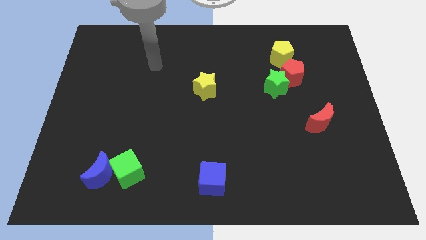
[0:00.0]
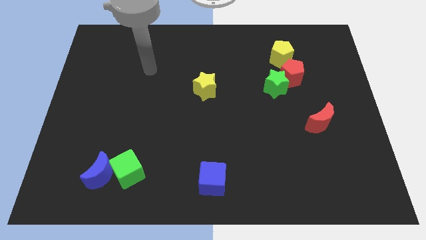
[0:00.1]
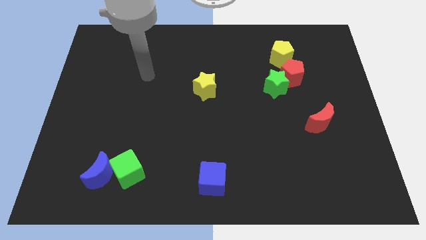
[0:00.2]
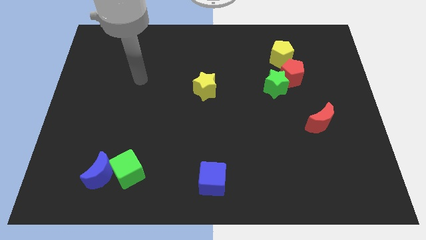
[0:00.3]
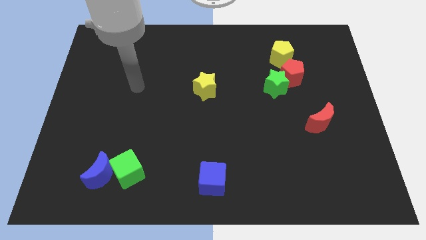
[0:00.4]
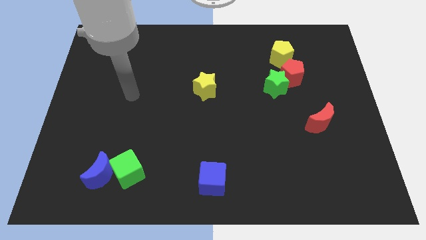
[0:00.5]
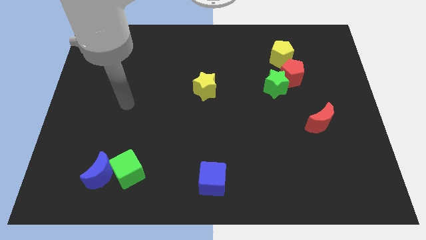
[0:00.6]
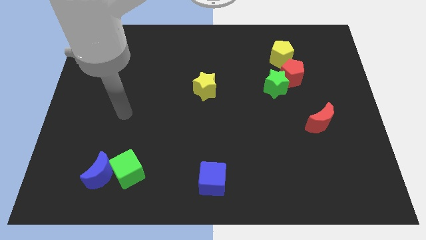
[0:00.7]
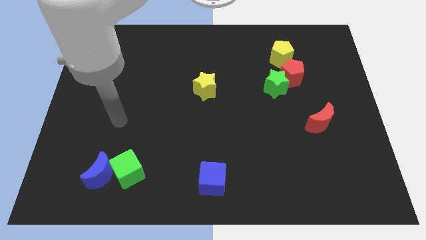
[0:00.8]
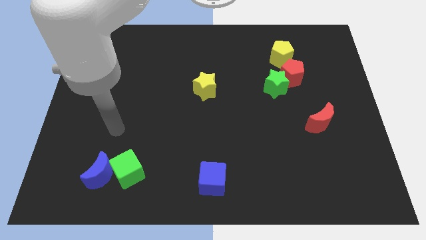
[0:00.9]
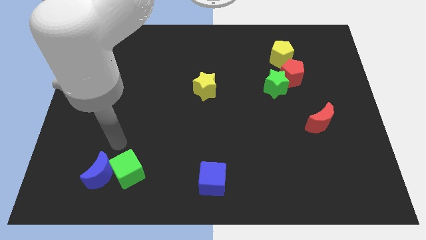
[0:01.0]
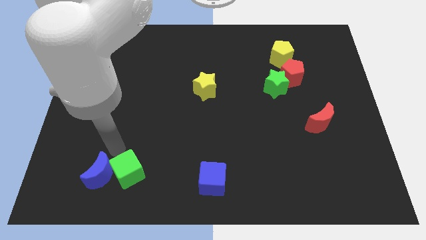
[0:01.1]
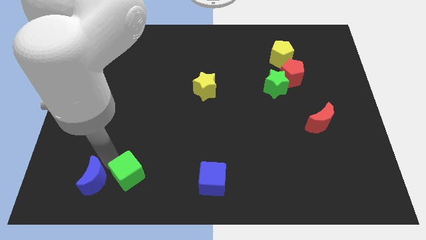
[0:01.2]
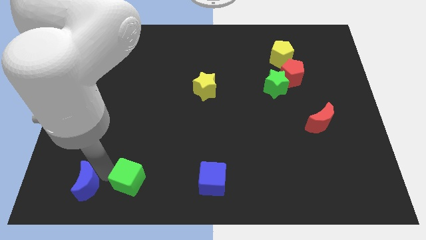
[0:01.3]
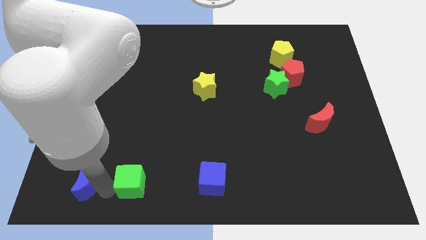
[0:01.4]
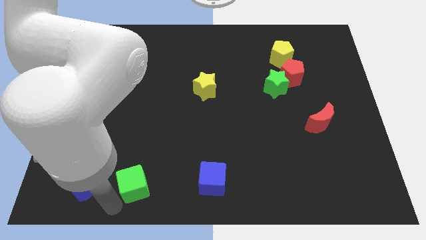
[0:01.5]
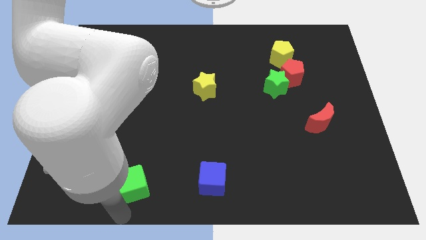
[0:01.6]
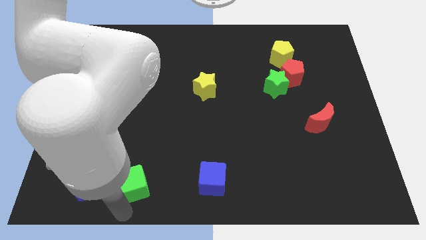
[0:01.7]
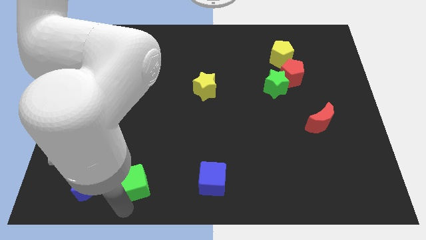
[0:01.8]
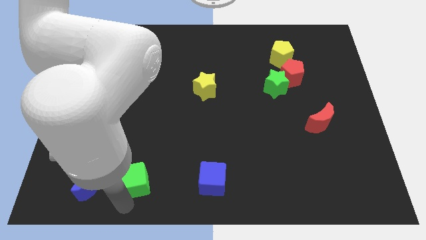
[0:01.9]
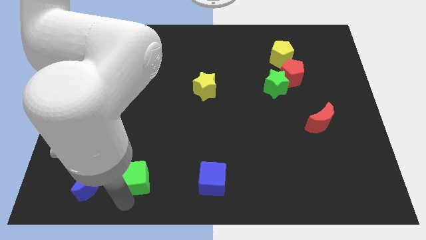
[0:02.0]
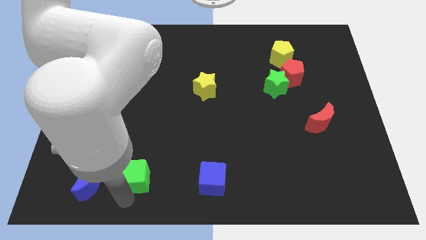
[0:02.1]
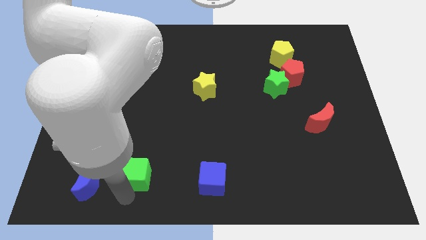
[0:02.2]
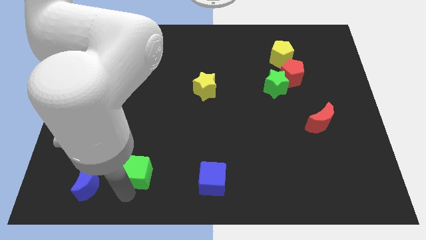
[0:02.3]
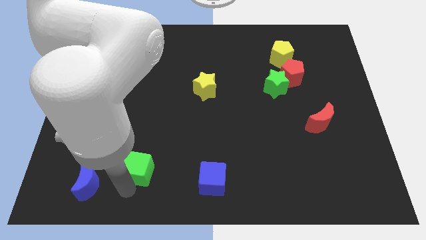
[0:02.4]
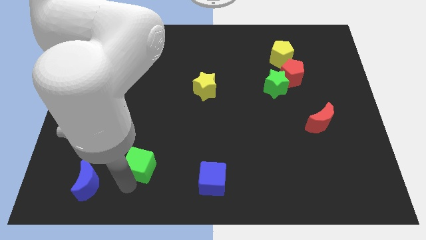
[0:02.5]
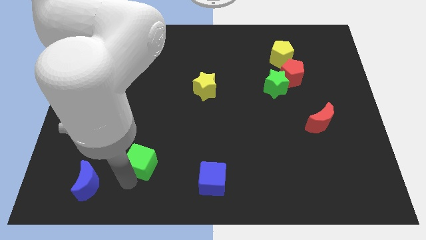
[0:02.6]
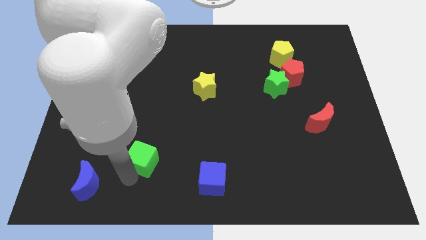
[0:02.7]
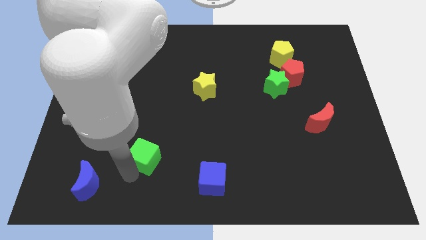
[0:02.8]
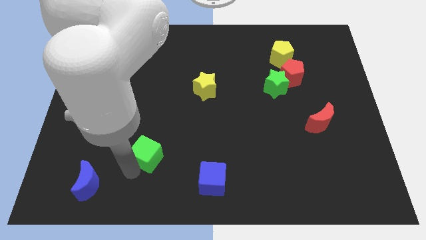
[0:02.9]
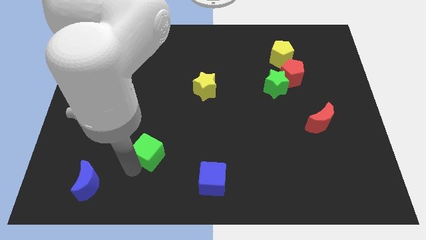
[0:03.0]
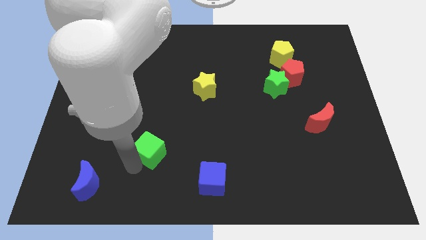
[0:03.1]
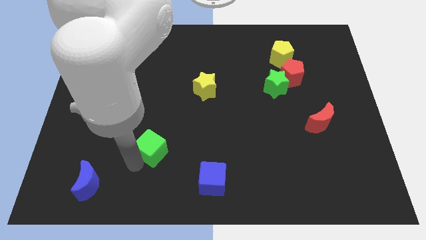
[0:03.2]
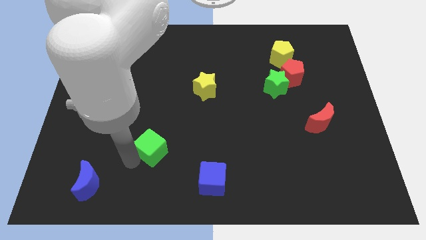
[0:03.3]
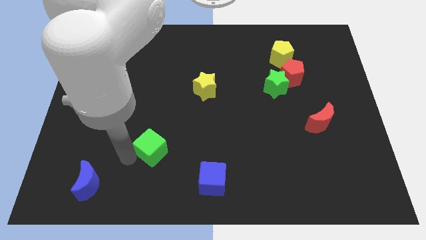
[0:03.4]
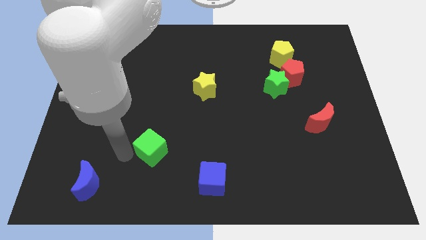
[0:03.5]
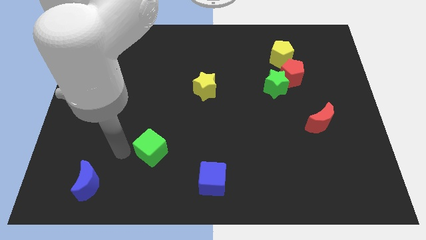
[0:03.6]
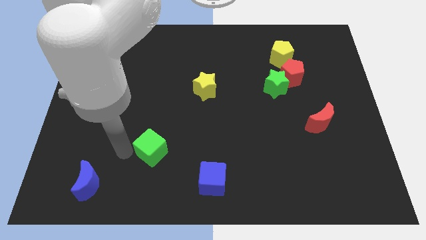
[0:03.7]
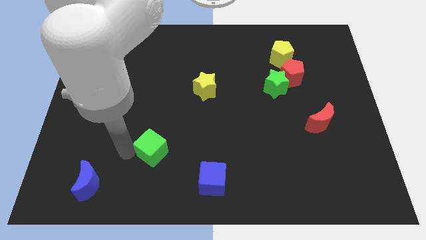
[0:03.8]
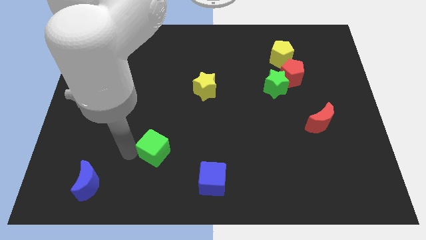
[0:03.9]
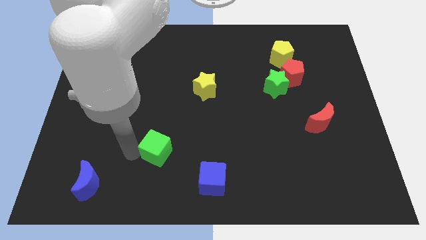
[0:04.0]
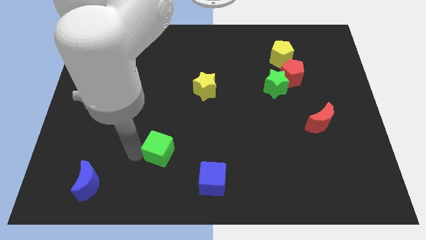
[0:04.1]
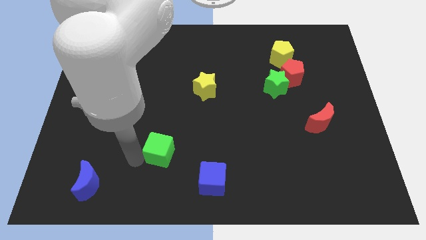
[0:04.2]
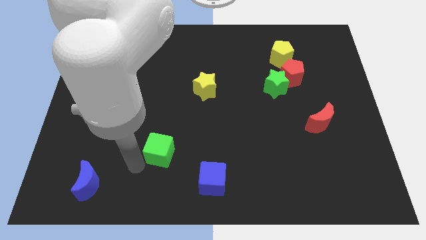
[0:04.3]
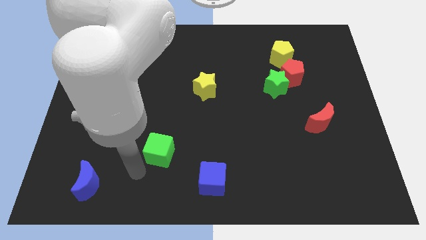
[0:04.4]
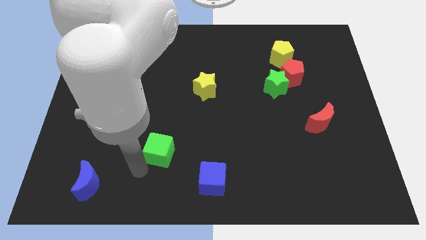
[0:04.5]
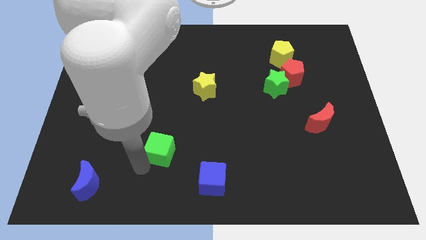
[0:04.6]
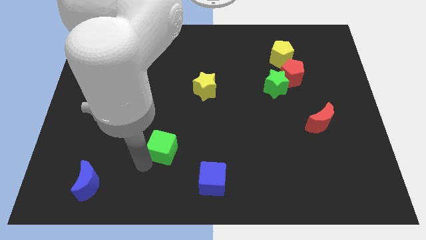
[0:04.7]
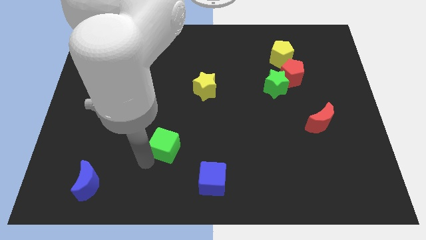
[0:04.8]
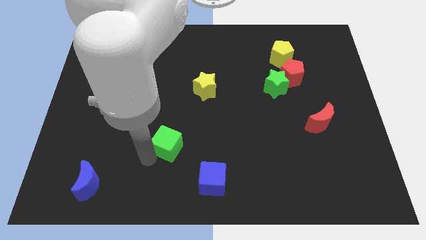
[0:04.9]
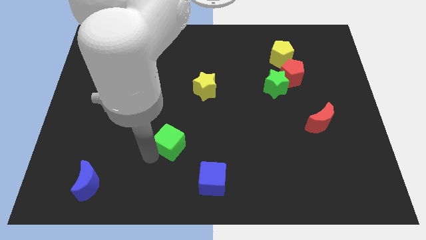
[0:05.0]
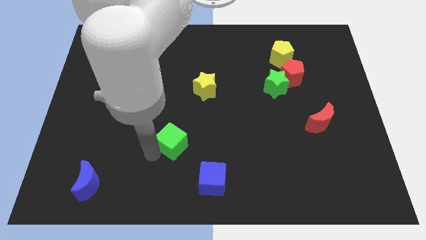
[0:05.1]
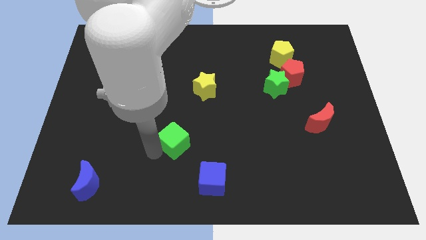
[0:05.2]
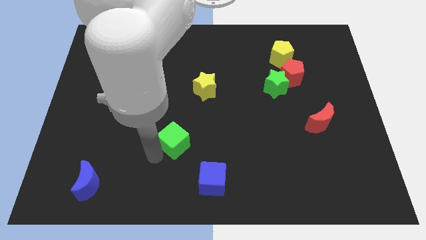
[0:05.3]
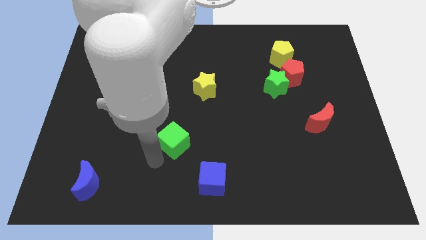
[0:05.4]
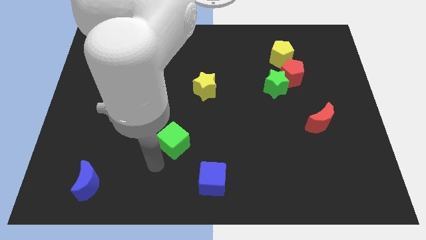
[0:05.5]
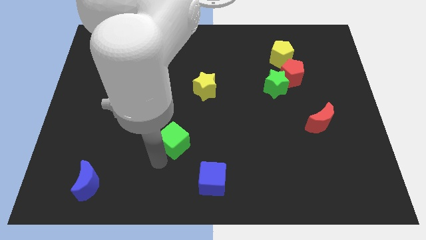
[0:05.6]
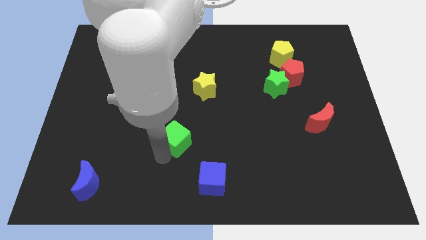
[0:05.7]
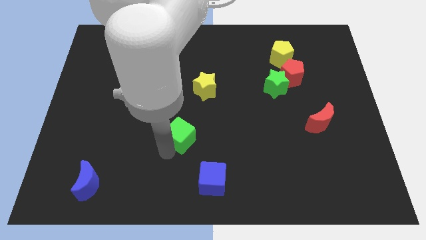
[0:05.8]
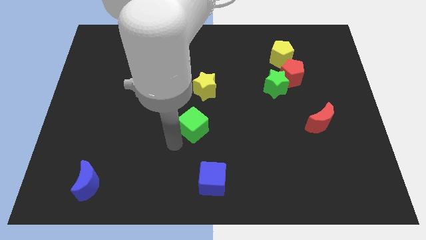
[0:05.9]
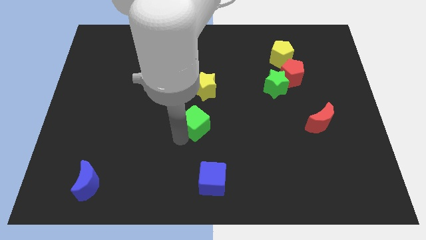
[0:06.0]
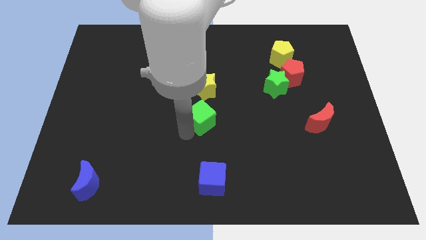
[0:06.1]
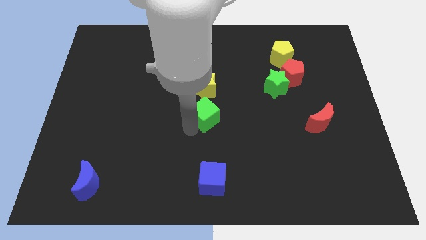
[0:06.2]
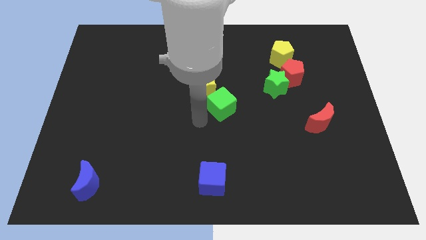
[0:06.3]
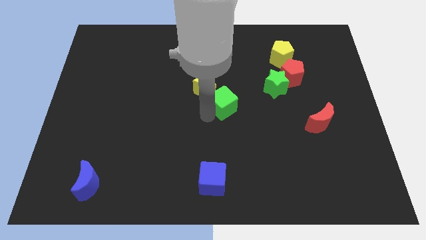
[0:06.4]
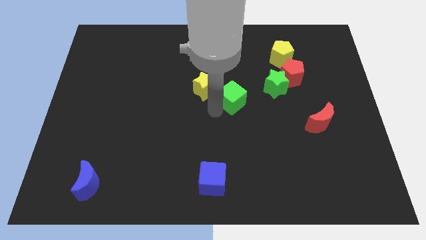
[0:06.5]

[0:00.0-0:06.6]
slide the green cube just right of the yellow star
